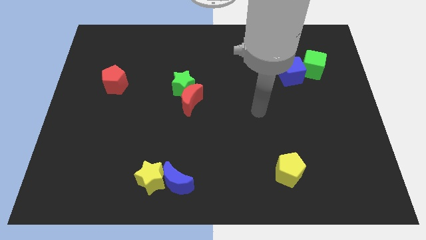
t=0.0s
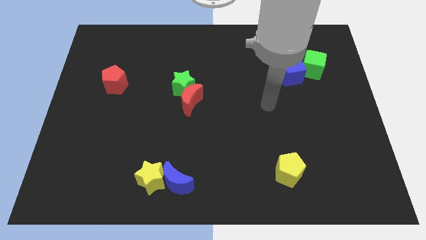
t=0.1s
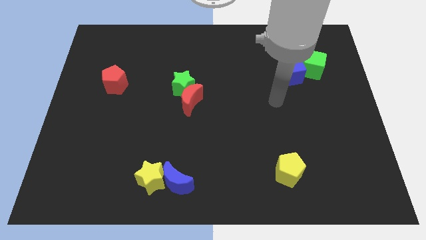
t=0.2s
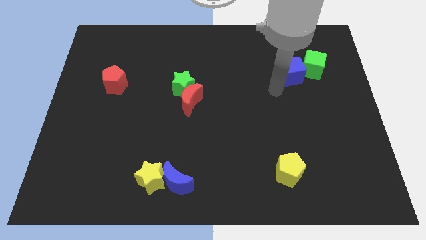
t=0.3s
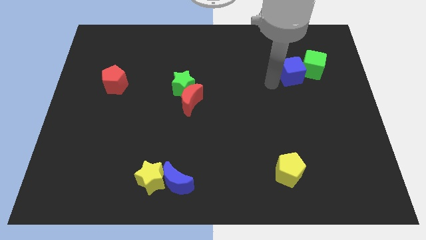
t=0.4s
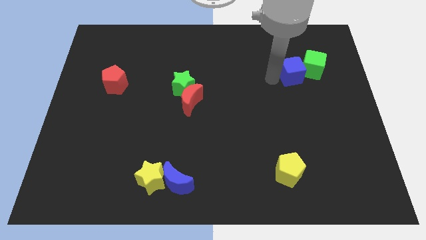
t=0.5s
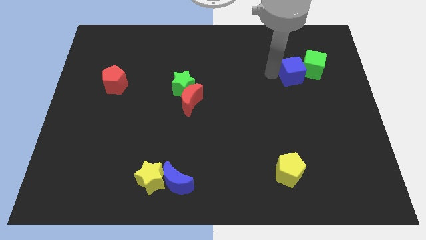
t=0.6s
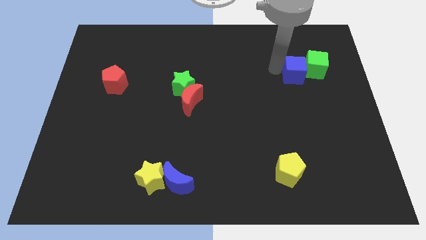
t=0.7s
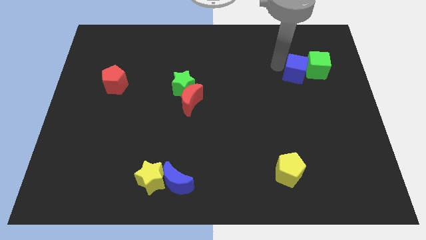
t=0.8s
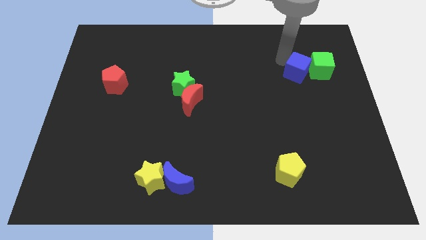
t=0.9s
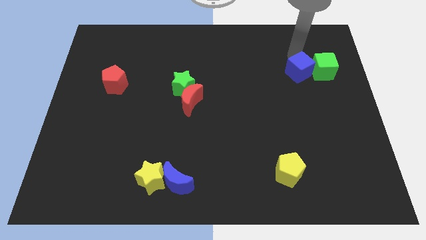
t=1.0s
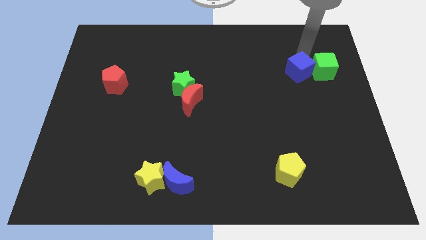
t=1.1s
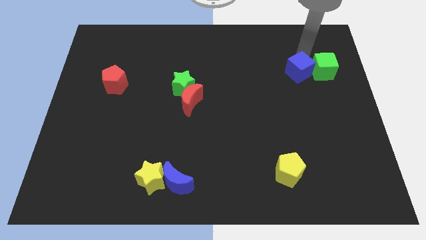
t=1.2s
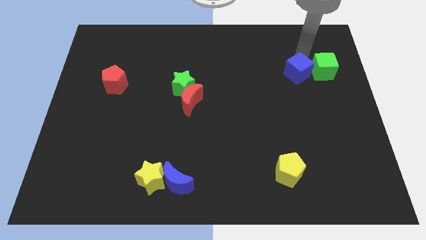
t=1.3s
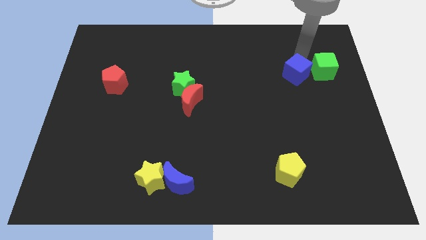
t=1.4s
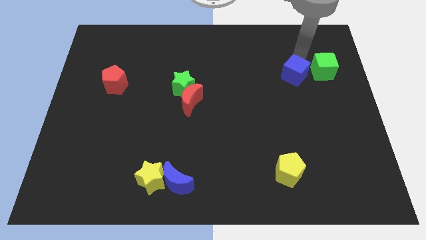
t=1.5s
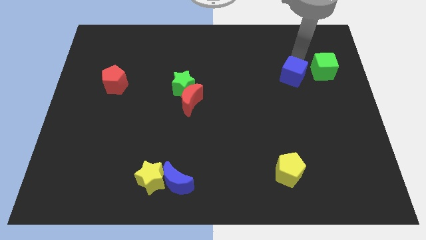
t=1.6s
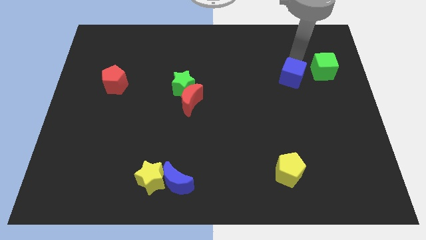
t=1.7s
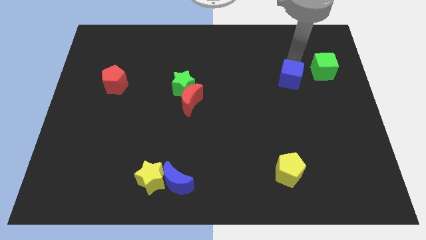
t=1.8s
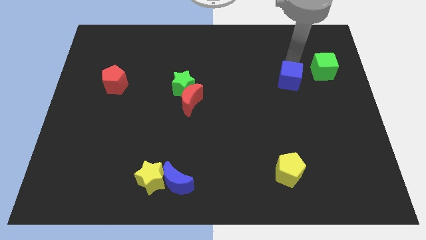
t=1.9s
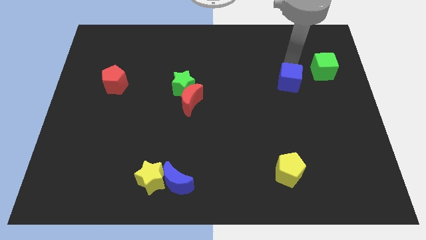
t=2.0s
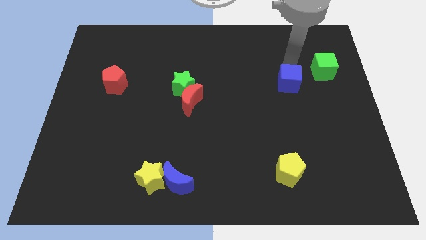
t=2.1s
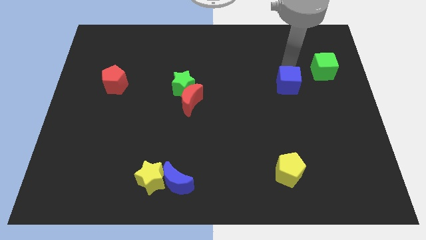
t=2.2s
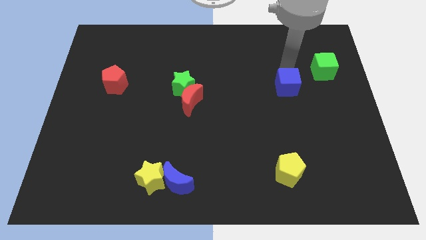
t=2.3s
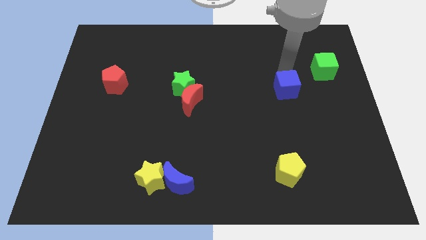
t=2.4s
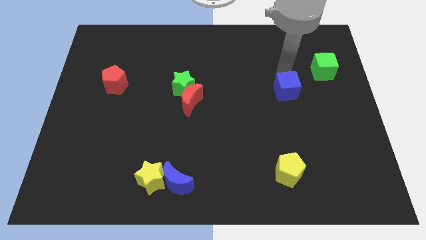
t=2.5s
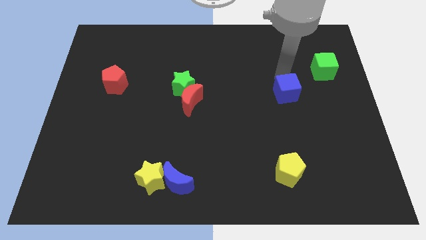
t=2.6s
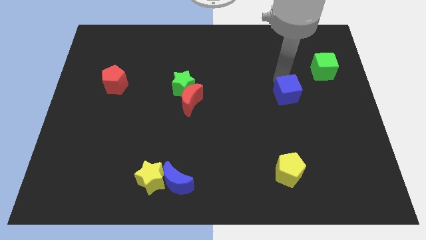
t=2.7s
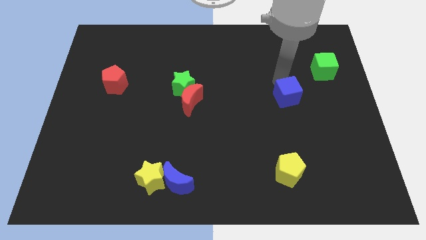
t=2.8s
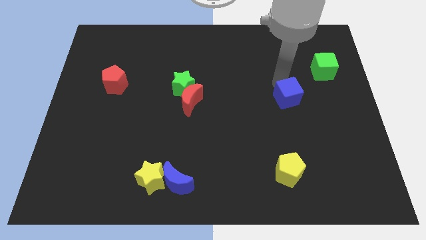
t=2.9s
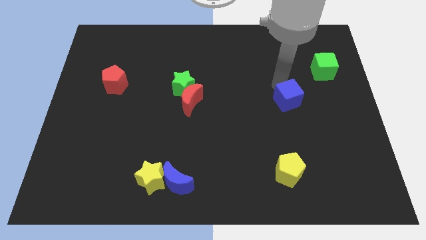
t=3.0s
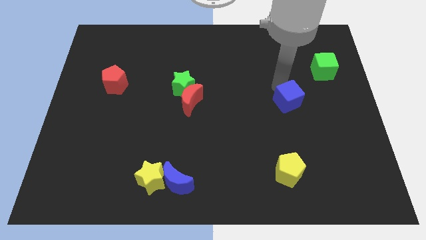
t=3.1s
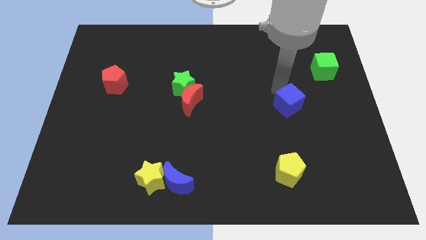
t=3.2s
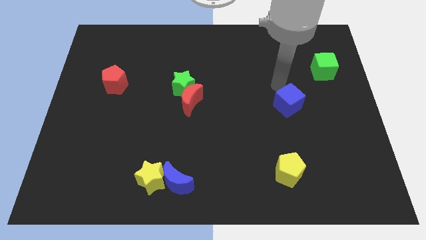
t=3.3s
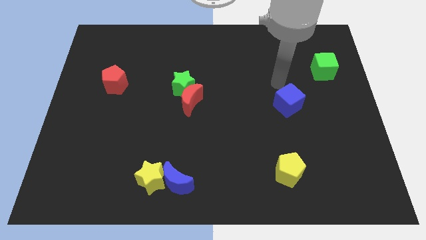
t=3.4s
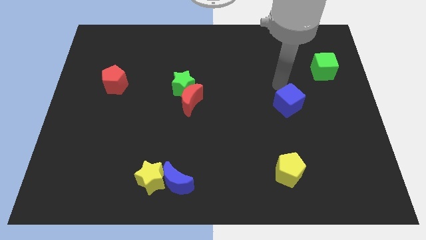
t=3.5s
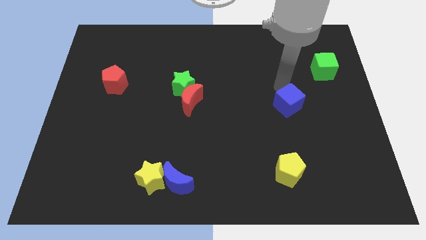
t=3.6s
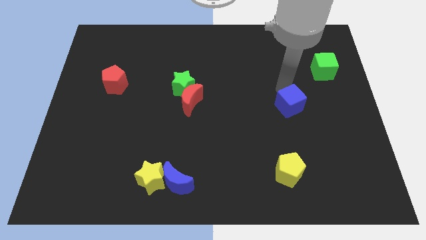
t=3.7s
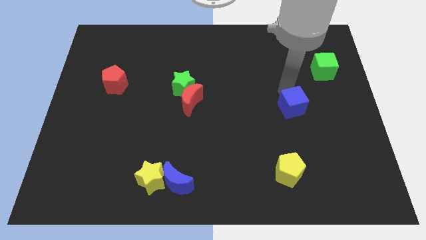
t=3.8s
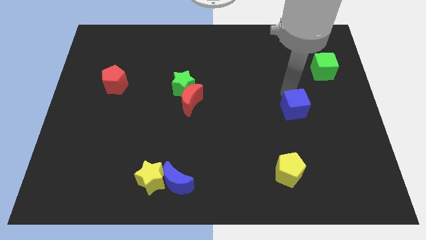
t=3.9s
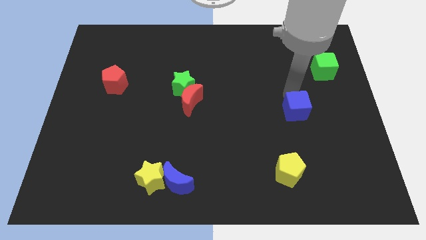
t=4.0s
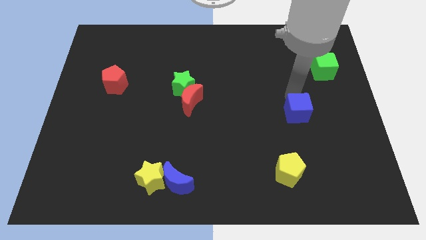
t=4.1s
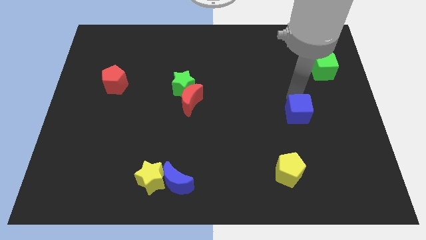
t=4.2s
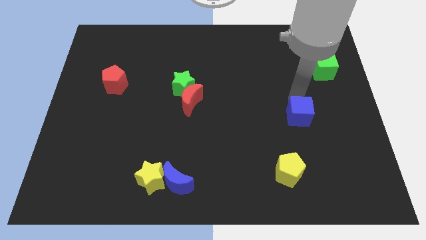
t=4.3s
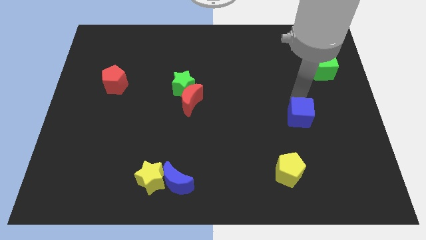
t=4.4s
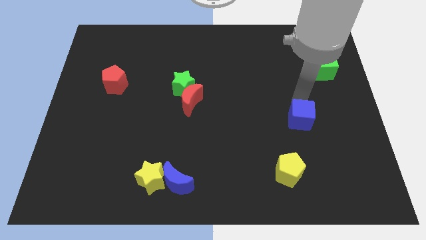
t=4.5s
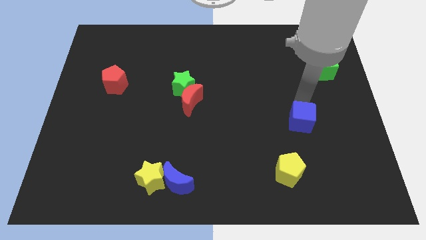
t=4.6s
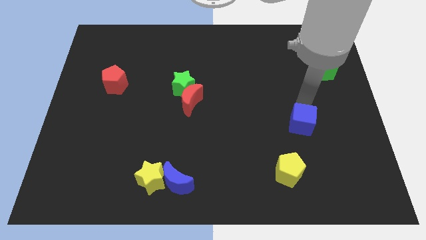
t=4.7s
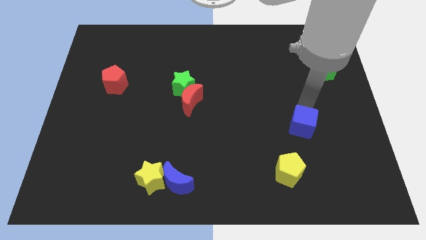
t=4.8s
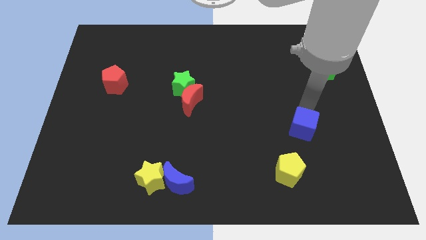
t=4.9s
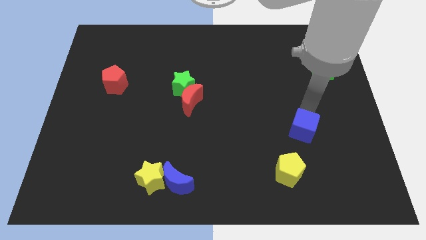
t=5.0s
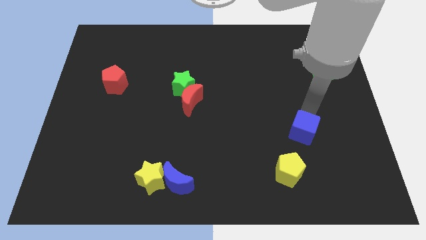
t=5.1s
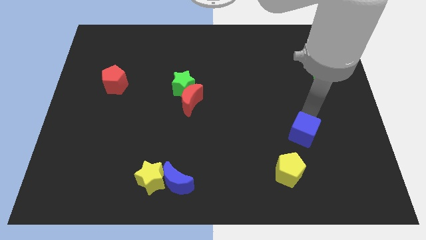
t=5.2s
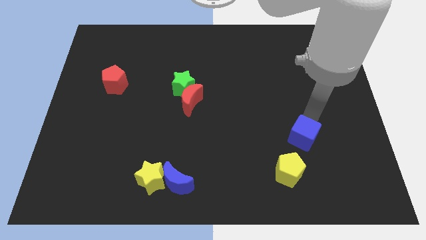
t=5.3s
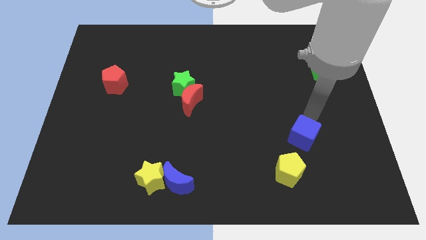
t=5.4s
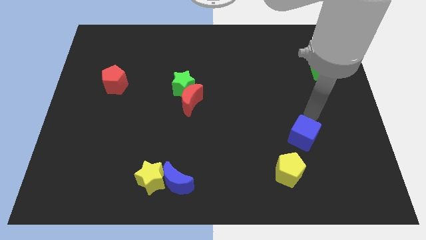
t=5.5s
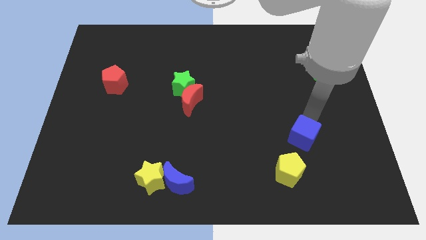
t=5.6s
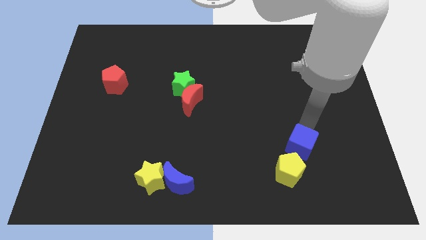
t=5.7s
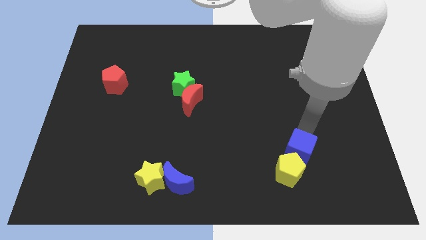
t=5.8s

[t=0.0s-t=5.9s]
put the blue cube towards the yellow pentagon

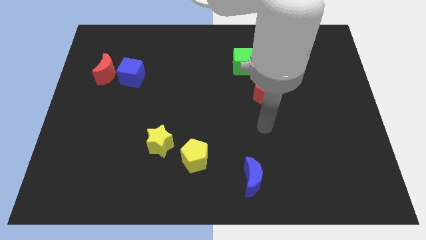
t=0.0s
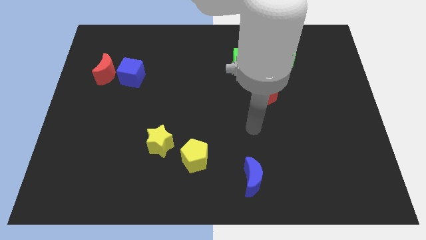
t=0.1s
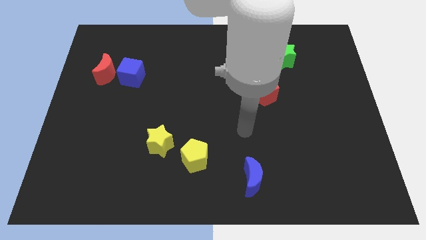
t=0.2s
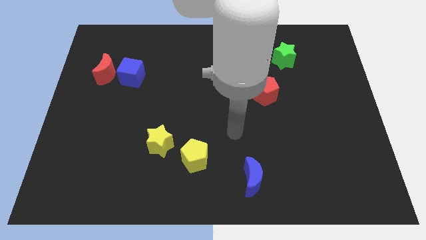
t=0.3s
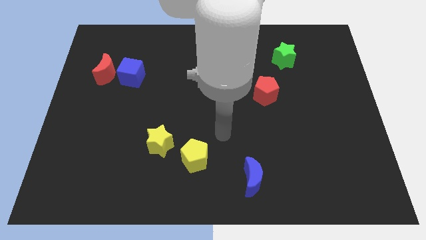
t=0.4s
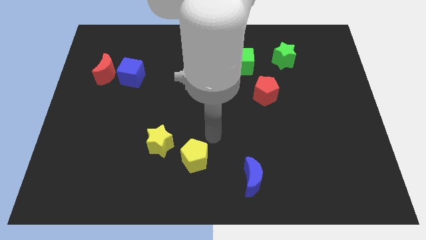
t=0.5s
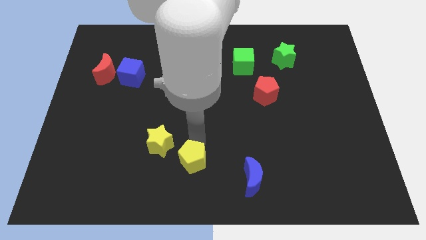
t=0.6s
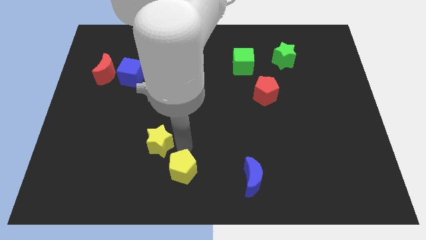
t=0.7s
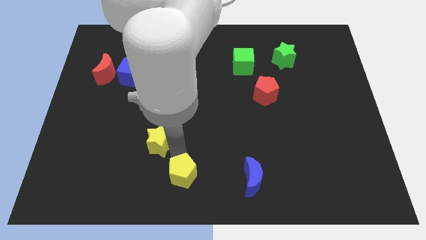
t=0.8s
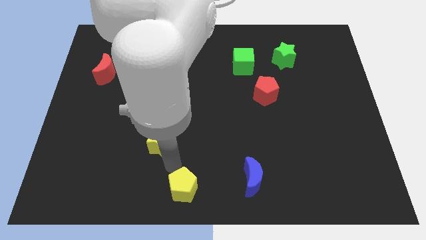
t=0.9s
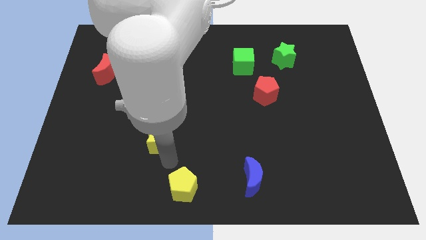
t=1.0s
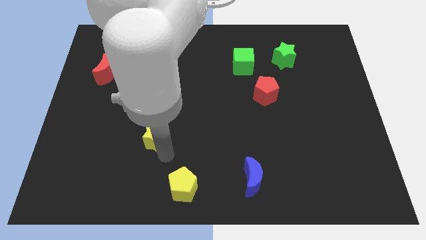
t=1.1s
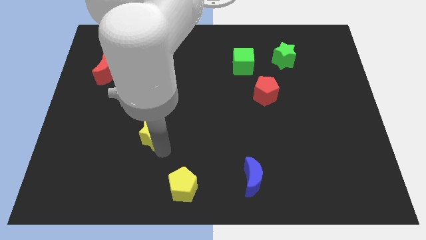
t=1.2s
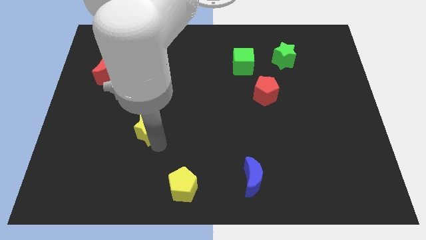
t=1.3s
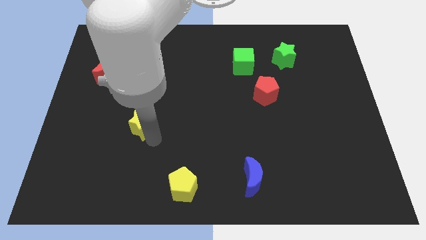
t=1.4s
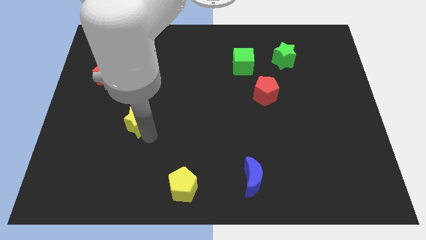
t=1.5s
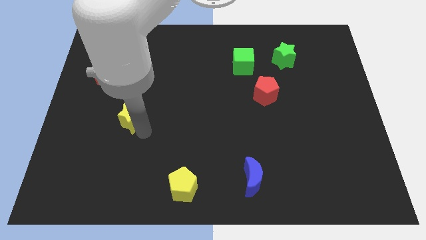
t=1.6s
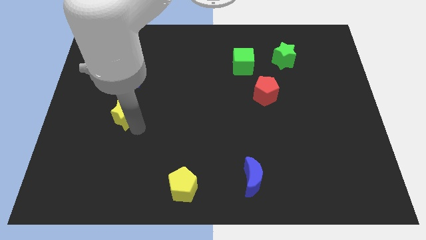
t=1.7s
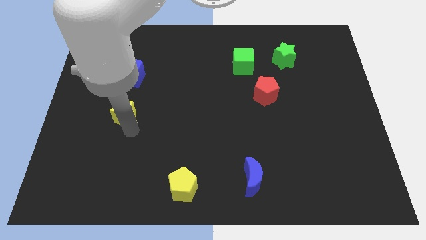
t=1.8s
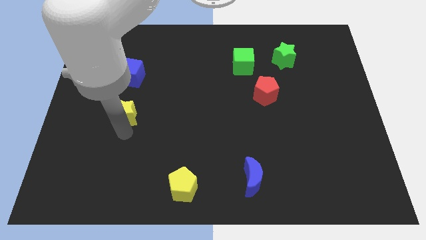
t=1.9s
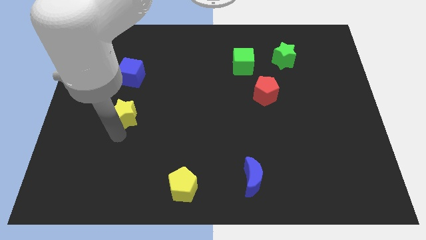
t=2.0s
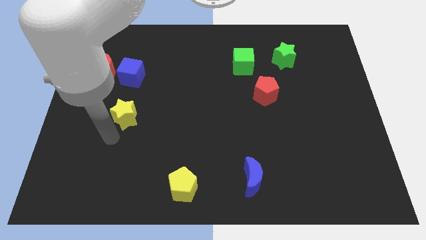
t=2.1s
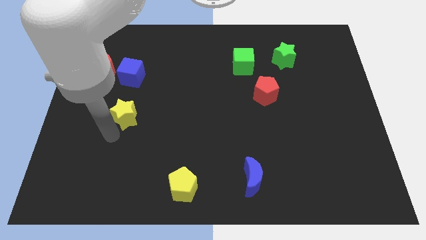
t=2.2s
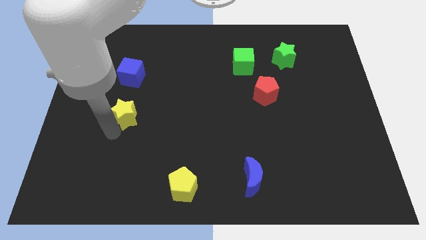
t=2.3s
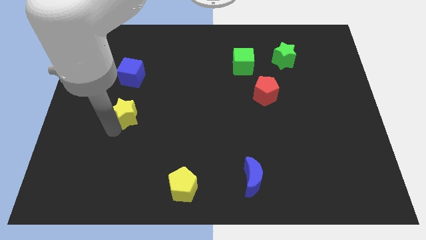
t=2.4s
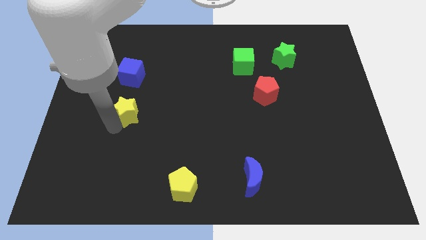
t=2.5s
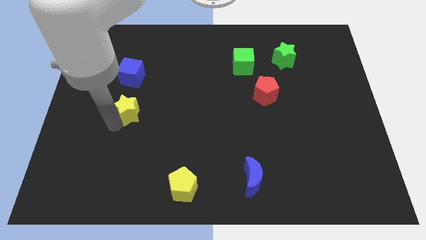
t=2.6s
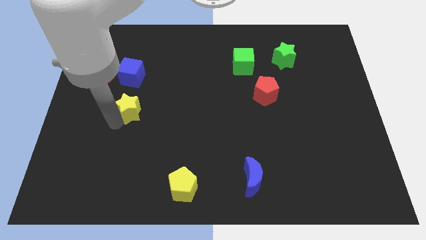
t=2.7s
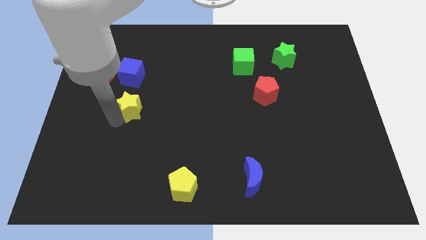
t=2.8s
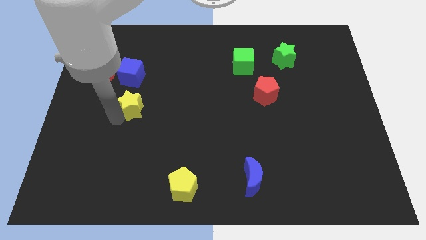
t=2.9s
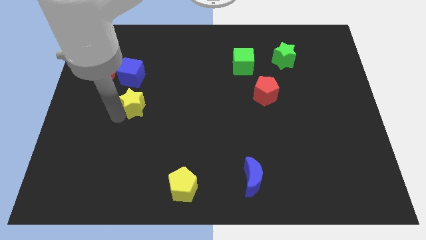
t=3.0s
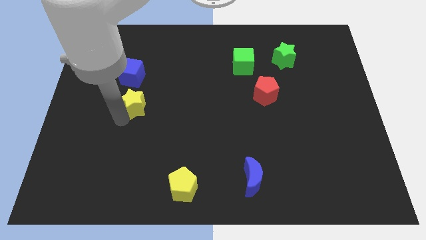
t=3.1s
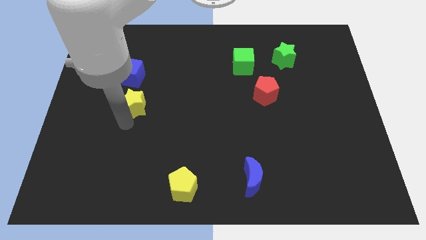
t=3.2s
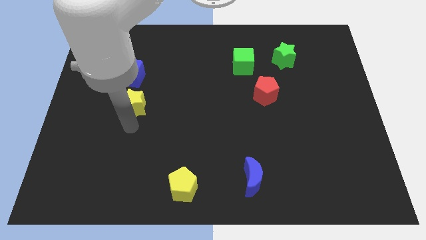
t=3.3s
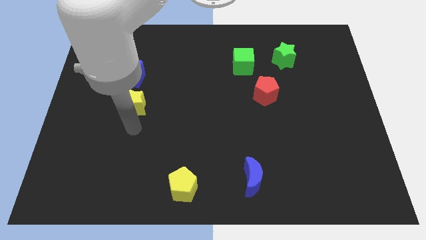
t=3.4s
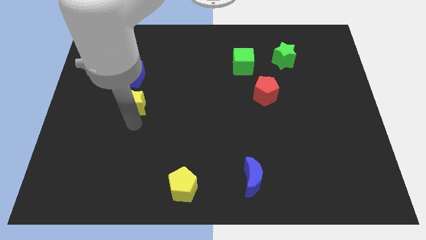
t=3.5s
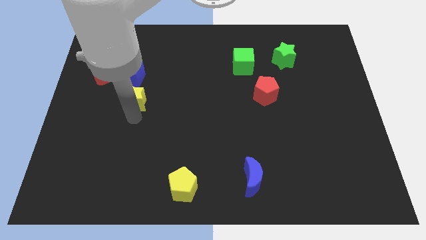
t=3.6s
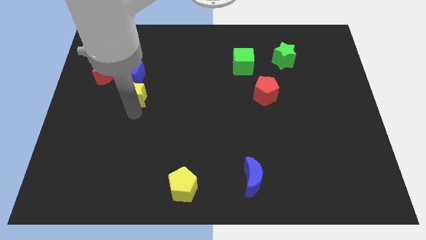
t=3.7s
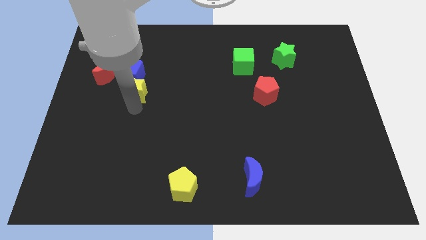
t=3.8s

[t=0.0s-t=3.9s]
put the yellow star next to the blue cube
